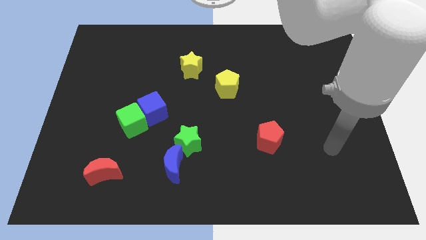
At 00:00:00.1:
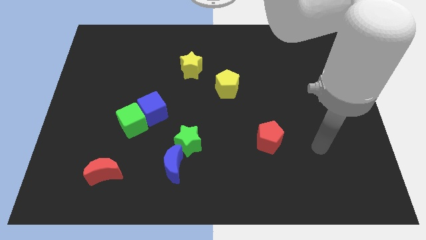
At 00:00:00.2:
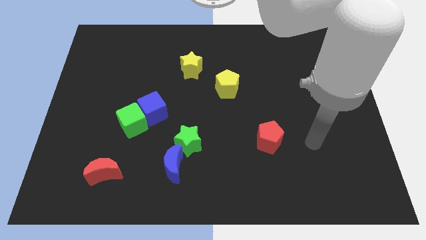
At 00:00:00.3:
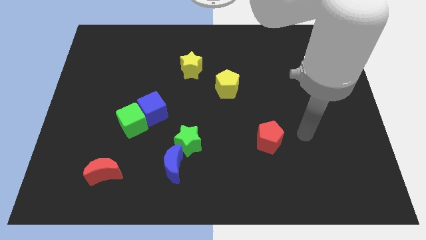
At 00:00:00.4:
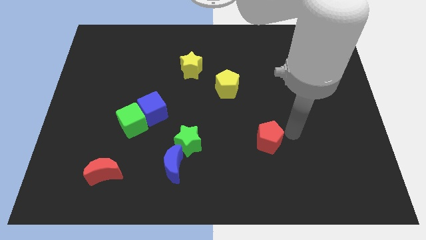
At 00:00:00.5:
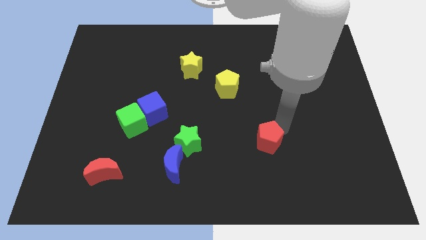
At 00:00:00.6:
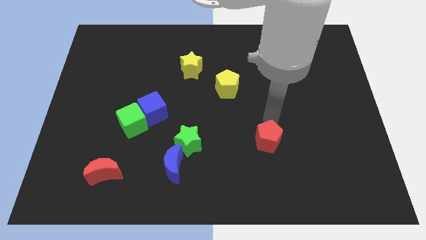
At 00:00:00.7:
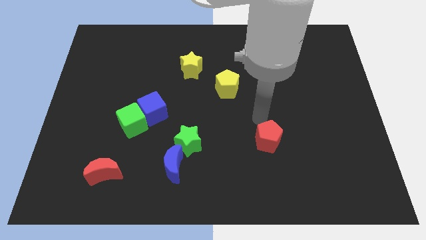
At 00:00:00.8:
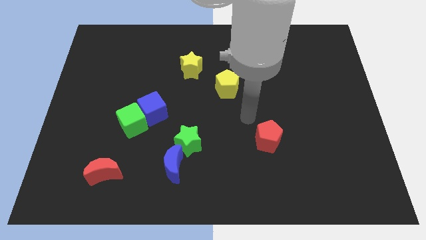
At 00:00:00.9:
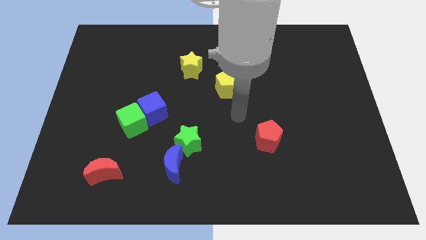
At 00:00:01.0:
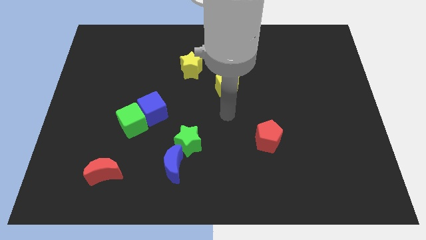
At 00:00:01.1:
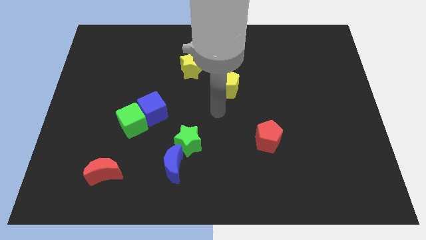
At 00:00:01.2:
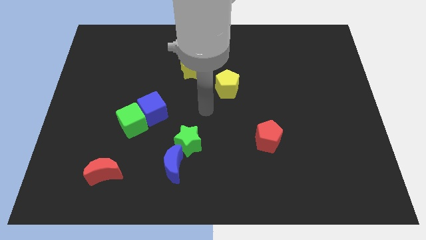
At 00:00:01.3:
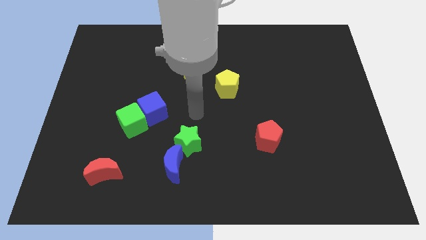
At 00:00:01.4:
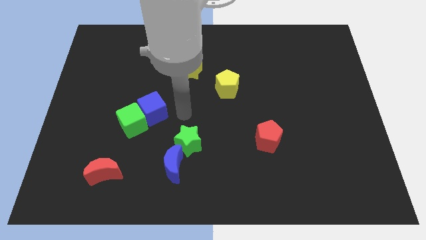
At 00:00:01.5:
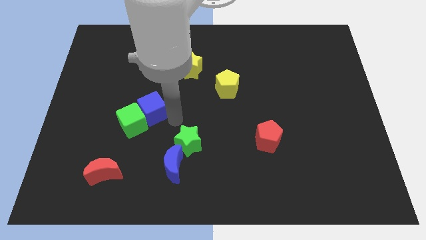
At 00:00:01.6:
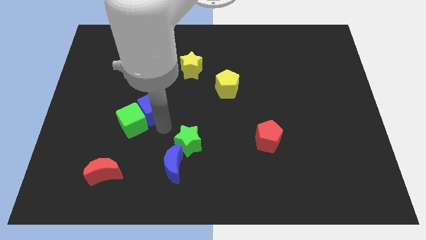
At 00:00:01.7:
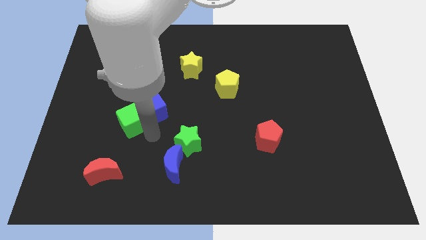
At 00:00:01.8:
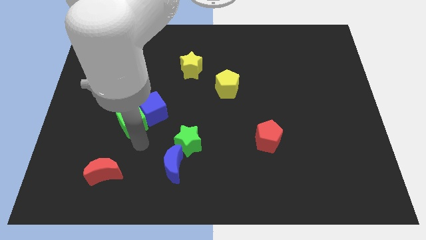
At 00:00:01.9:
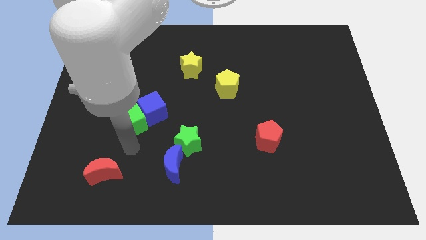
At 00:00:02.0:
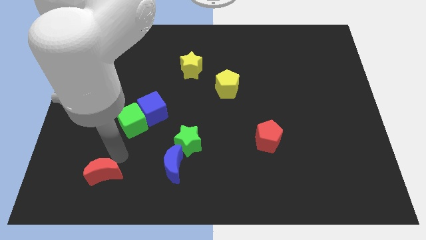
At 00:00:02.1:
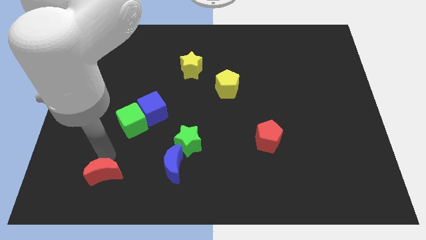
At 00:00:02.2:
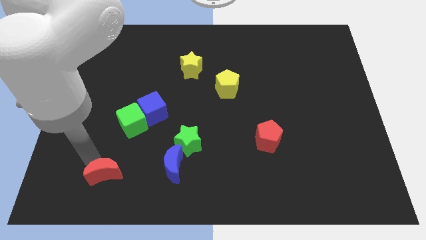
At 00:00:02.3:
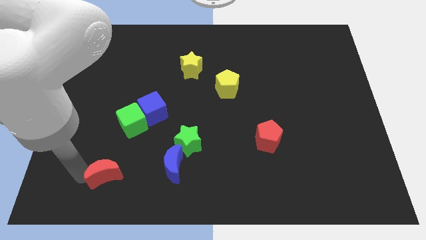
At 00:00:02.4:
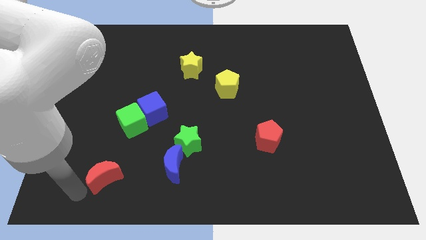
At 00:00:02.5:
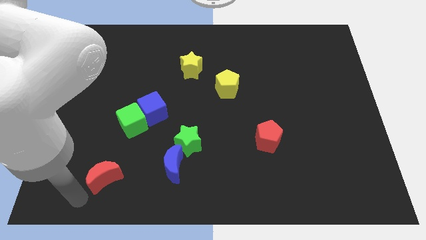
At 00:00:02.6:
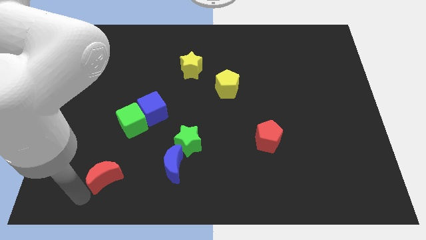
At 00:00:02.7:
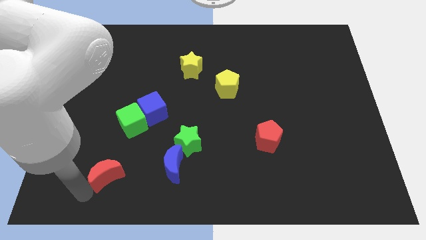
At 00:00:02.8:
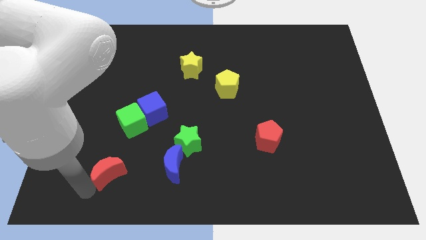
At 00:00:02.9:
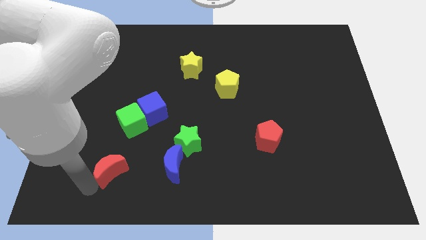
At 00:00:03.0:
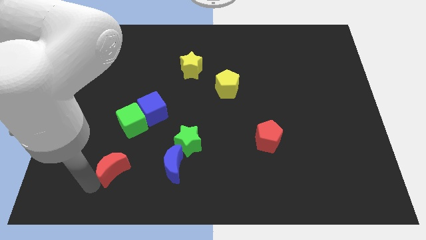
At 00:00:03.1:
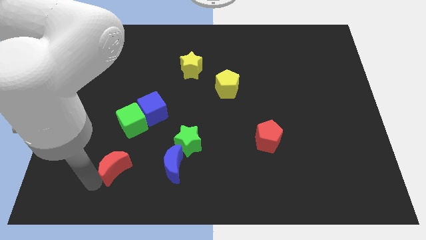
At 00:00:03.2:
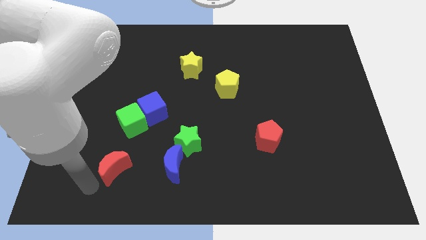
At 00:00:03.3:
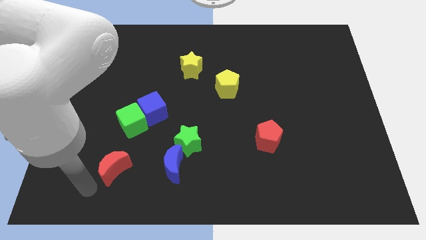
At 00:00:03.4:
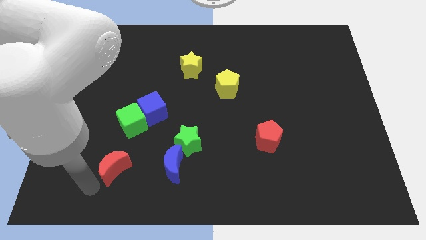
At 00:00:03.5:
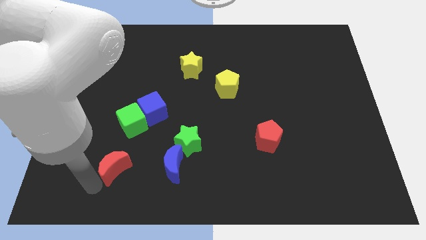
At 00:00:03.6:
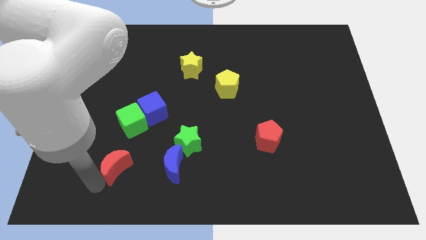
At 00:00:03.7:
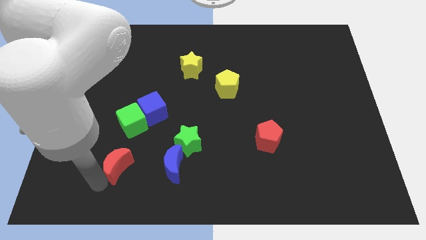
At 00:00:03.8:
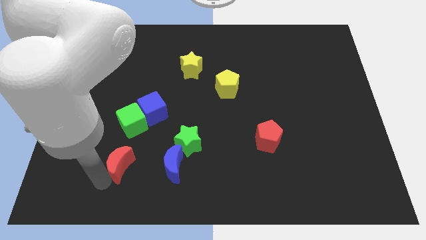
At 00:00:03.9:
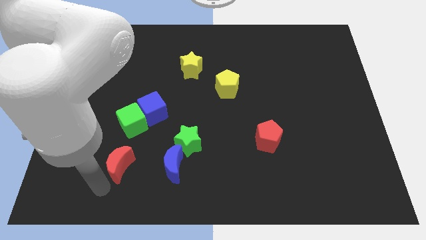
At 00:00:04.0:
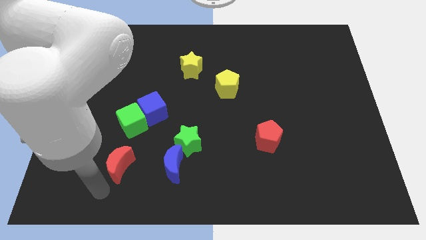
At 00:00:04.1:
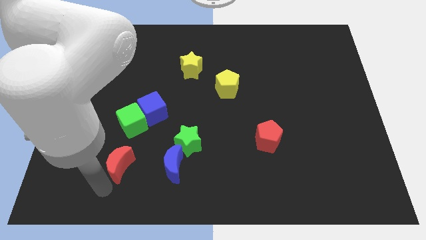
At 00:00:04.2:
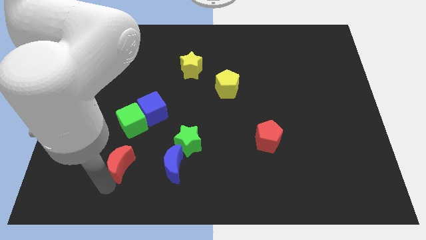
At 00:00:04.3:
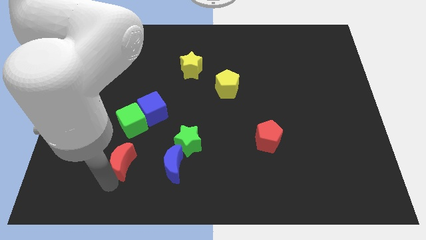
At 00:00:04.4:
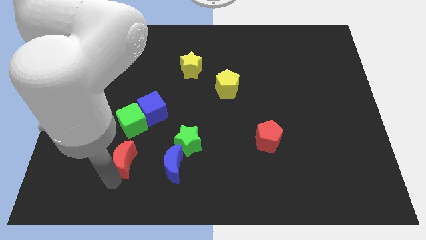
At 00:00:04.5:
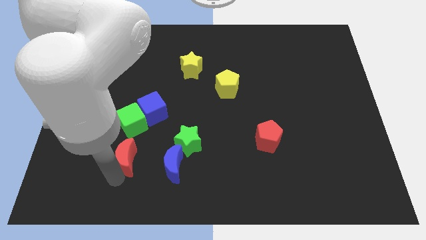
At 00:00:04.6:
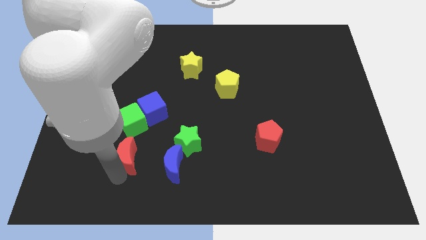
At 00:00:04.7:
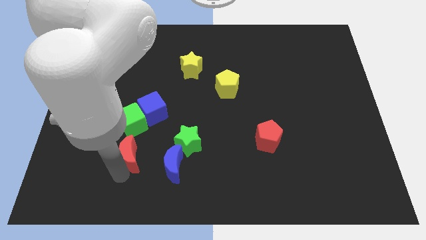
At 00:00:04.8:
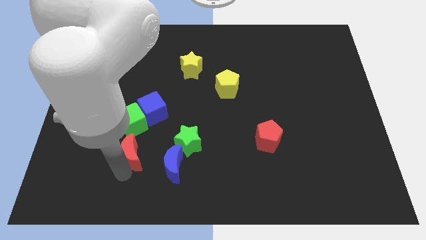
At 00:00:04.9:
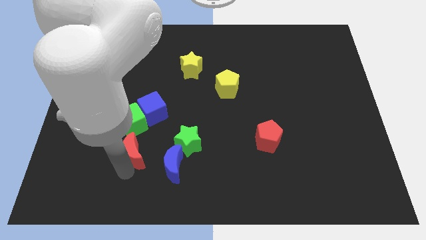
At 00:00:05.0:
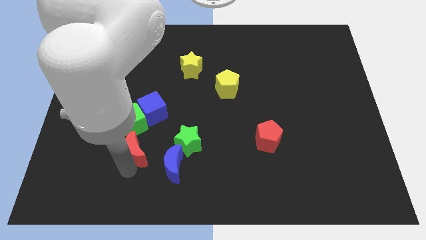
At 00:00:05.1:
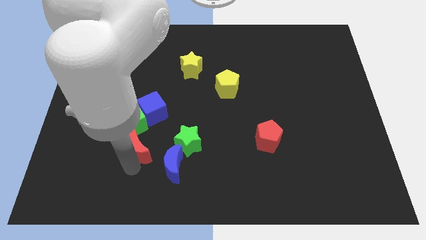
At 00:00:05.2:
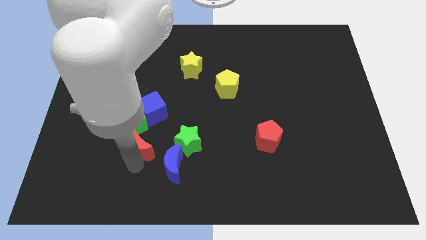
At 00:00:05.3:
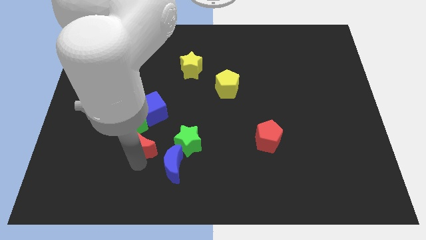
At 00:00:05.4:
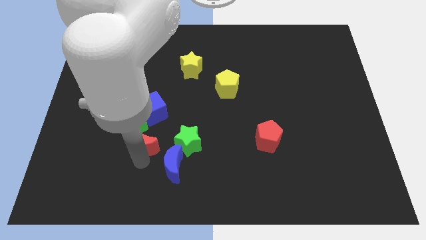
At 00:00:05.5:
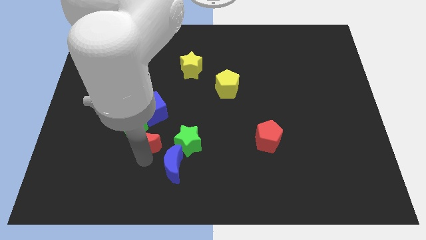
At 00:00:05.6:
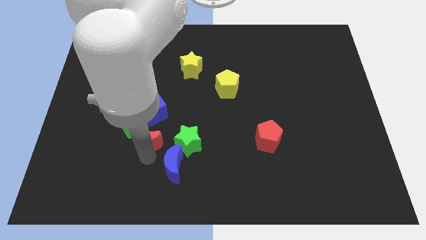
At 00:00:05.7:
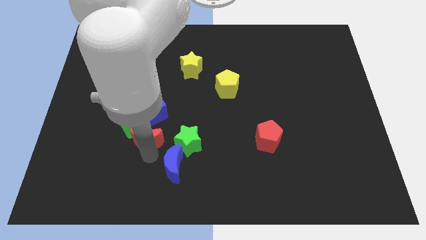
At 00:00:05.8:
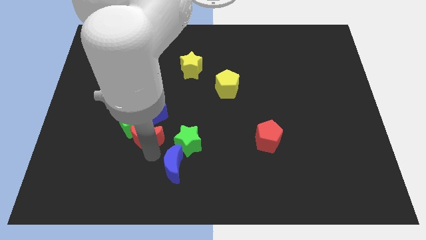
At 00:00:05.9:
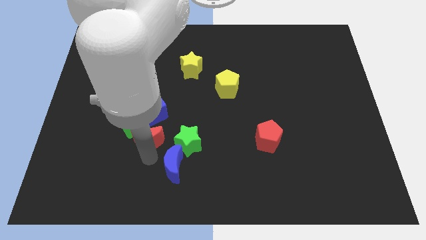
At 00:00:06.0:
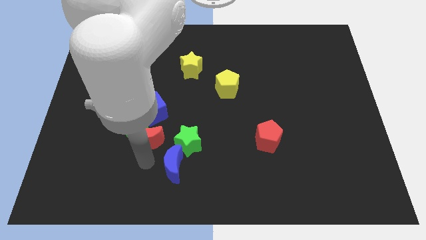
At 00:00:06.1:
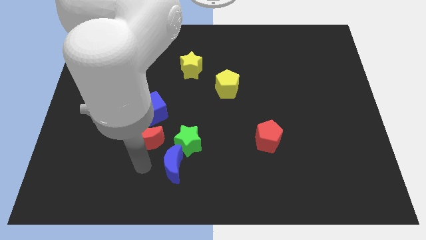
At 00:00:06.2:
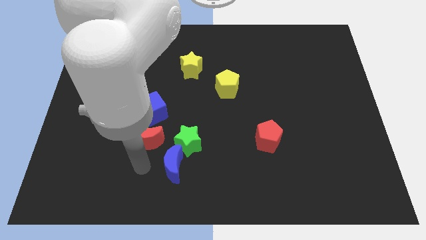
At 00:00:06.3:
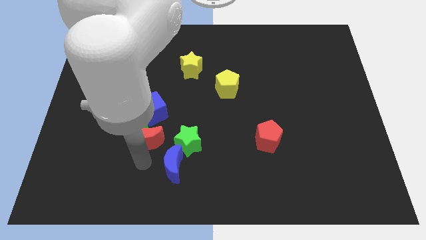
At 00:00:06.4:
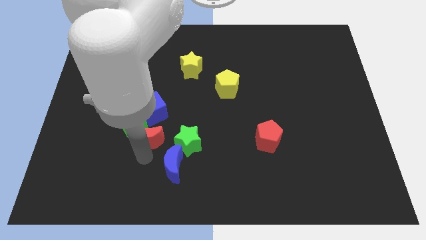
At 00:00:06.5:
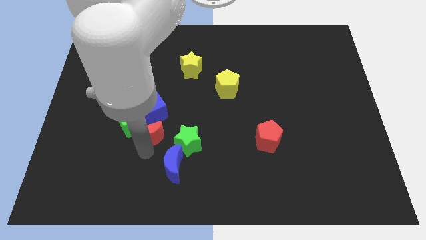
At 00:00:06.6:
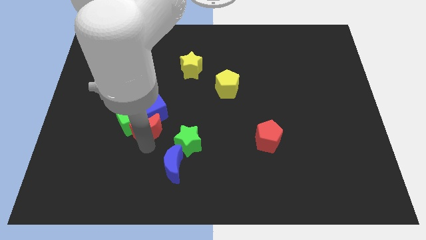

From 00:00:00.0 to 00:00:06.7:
move the red moon next to the blue cube

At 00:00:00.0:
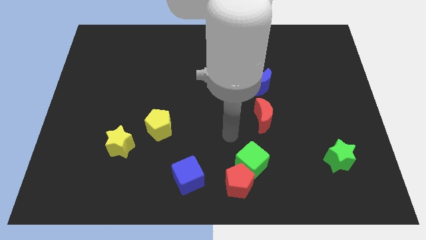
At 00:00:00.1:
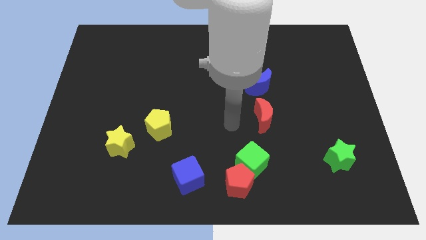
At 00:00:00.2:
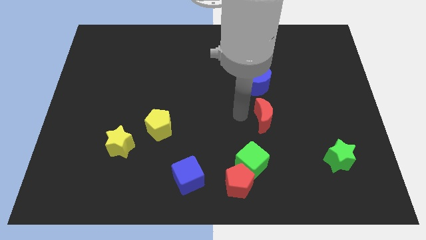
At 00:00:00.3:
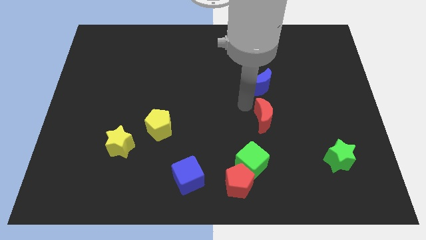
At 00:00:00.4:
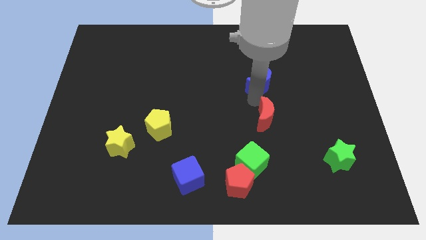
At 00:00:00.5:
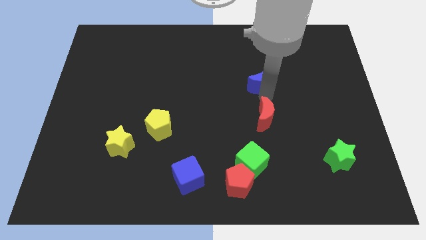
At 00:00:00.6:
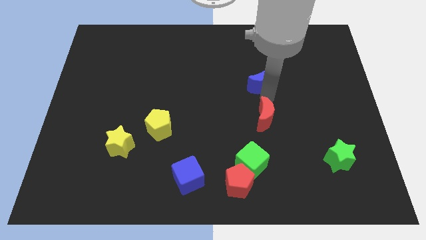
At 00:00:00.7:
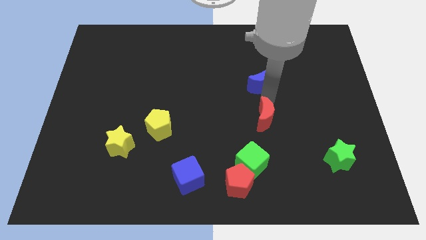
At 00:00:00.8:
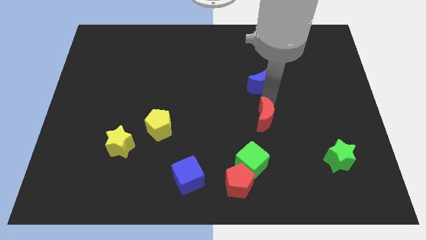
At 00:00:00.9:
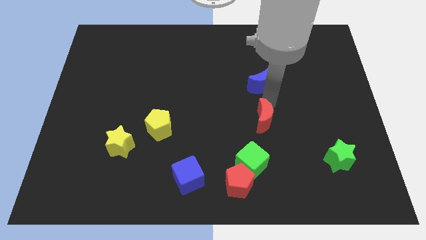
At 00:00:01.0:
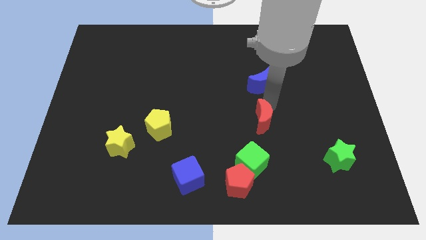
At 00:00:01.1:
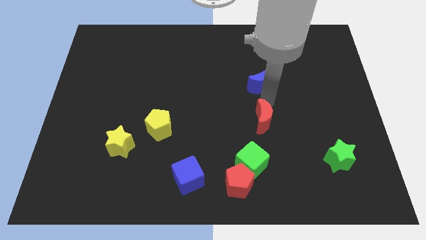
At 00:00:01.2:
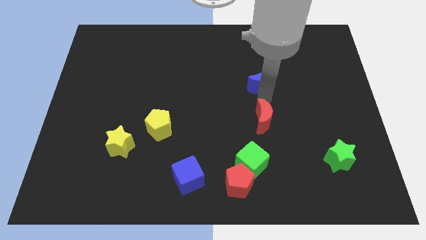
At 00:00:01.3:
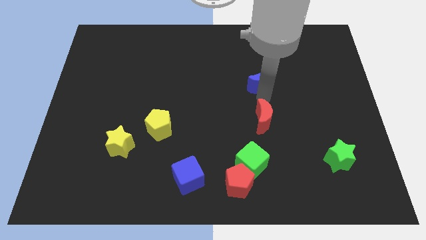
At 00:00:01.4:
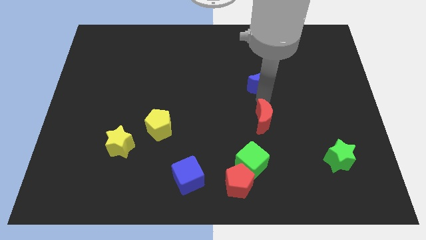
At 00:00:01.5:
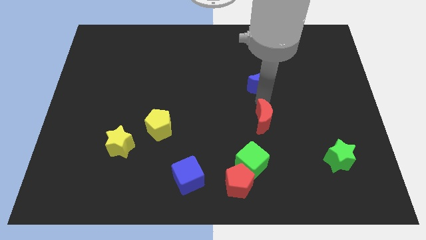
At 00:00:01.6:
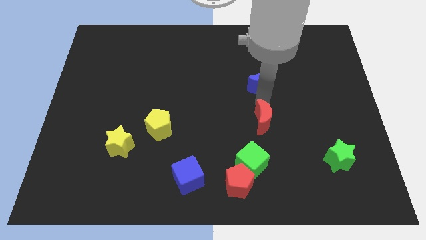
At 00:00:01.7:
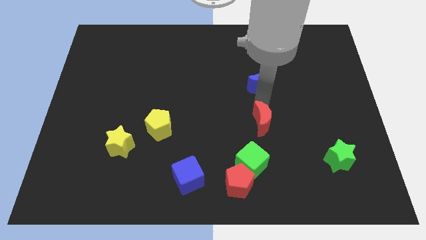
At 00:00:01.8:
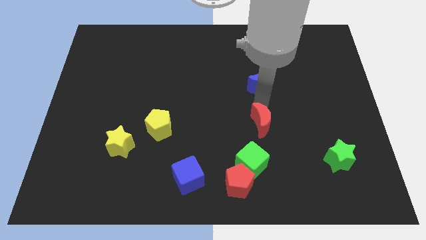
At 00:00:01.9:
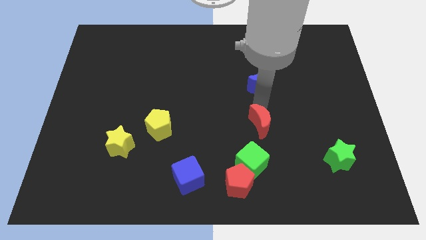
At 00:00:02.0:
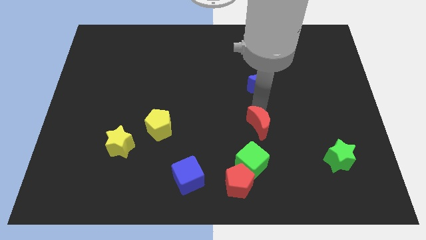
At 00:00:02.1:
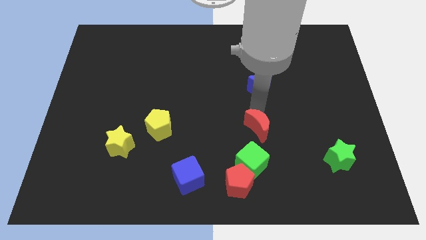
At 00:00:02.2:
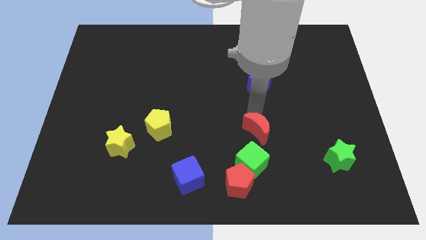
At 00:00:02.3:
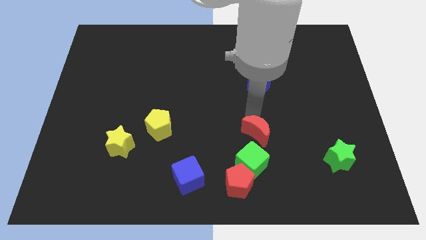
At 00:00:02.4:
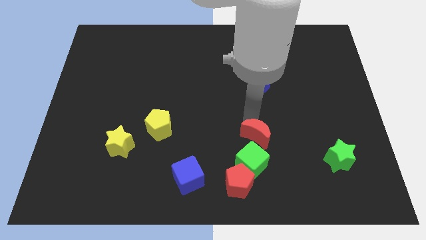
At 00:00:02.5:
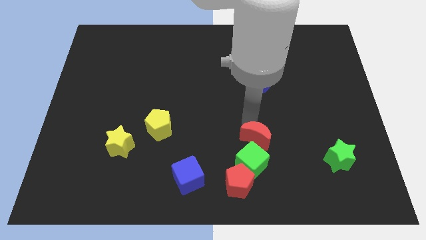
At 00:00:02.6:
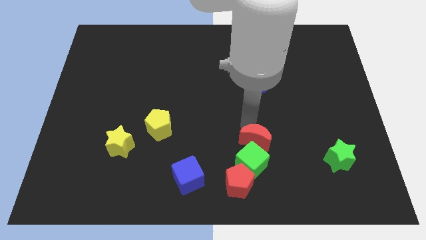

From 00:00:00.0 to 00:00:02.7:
slide the red moon next to the green cube
